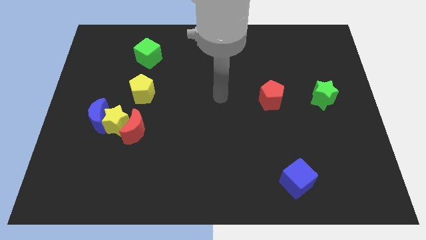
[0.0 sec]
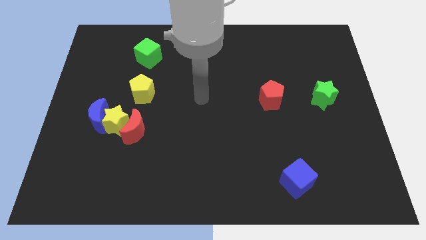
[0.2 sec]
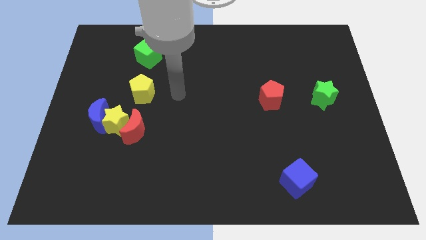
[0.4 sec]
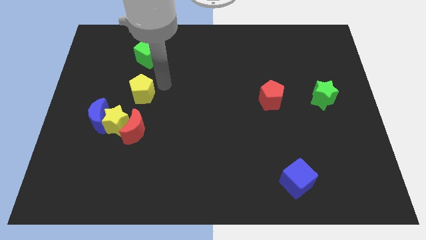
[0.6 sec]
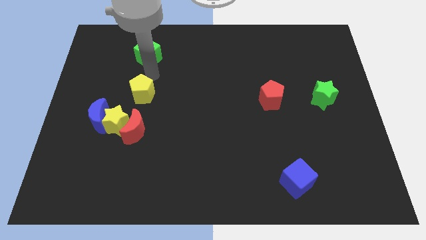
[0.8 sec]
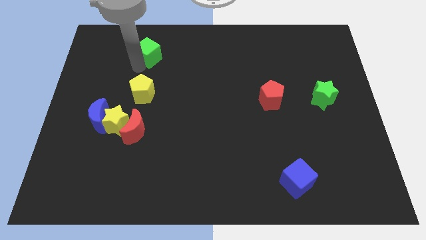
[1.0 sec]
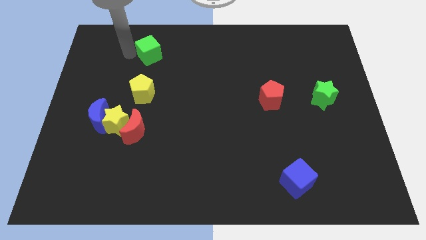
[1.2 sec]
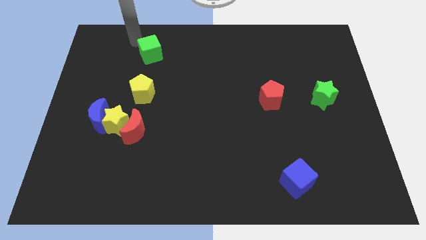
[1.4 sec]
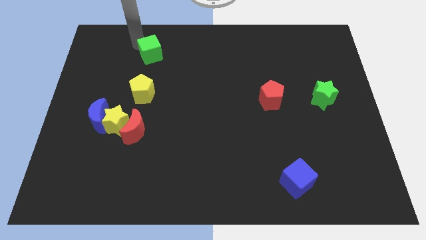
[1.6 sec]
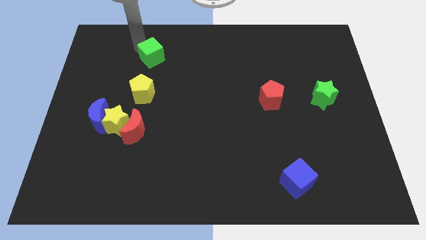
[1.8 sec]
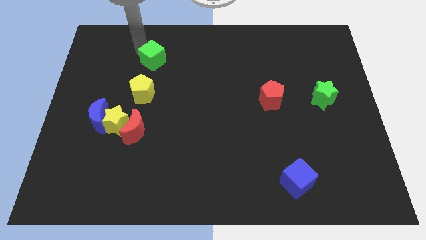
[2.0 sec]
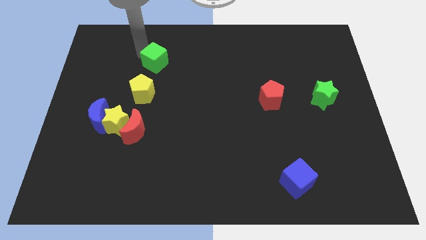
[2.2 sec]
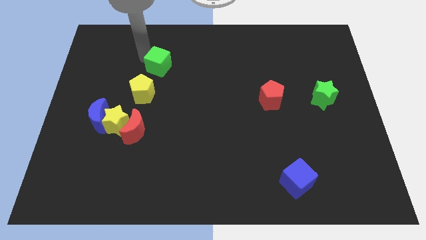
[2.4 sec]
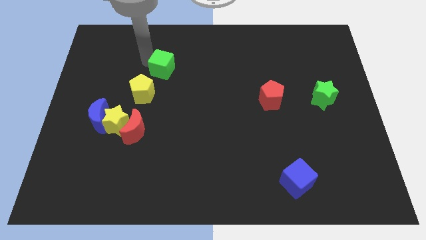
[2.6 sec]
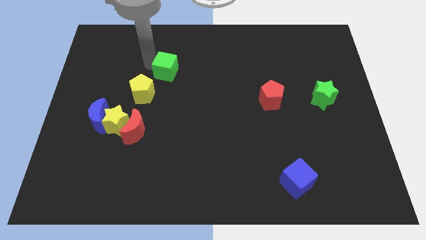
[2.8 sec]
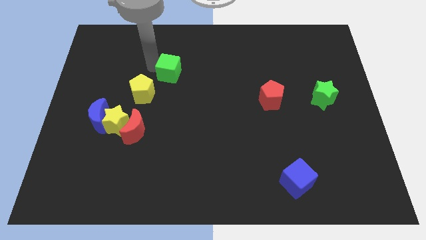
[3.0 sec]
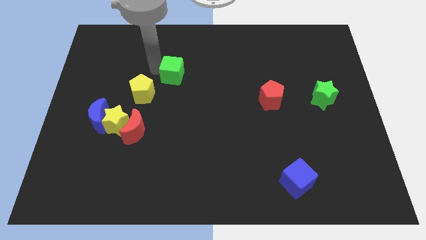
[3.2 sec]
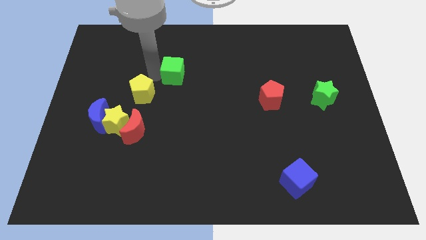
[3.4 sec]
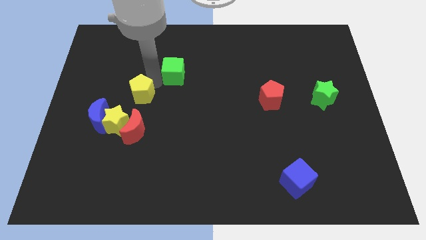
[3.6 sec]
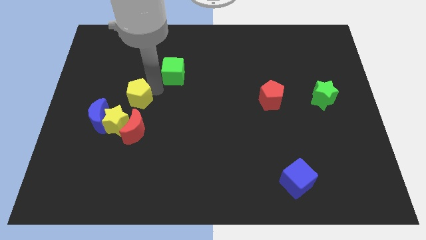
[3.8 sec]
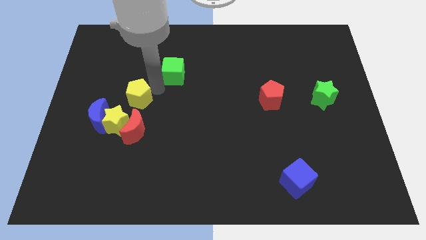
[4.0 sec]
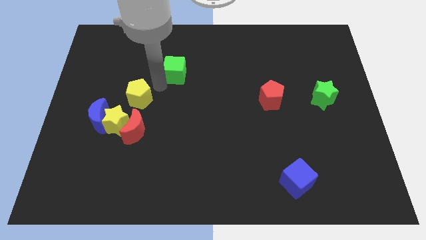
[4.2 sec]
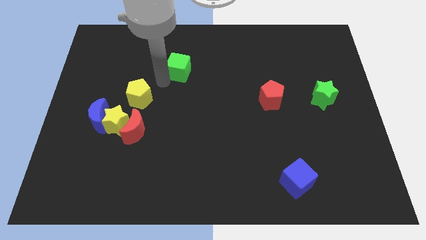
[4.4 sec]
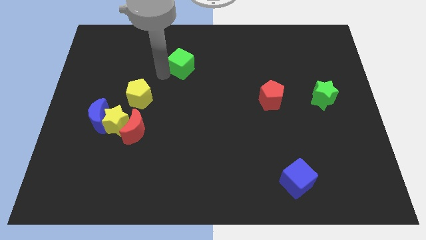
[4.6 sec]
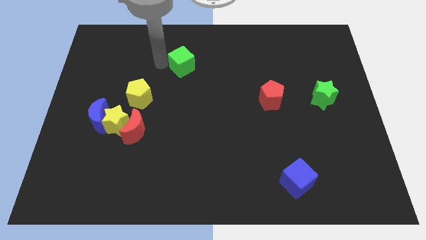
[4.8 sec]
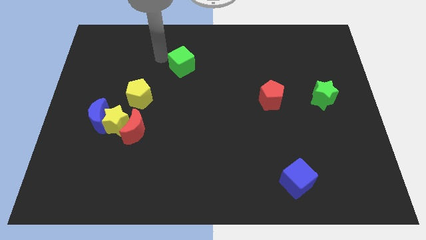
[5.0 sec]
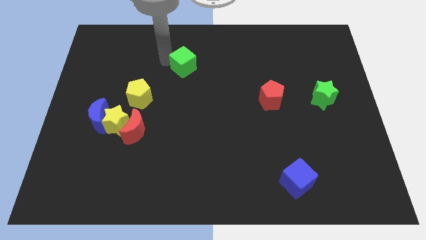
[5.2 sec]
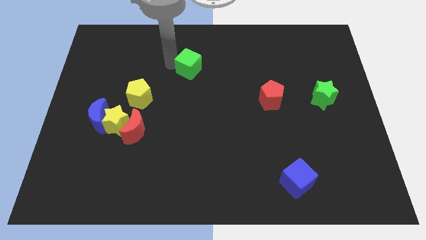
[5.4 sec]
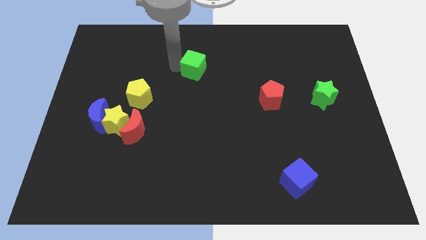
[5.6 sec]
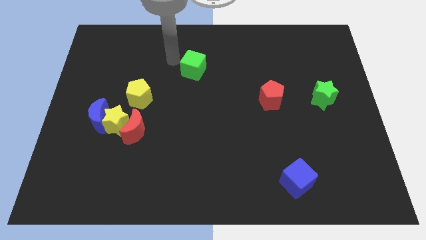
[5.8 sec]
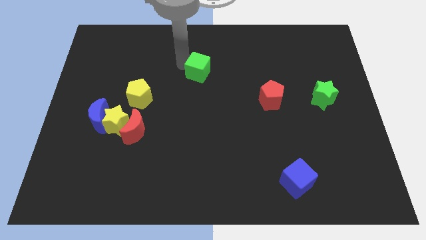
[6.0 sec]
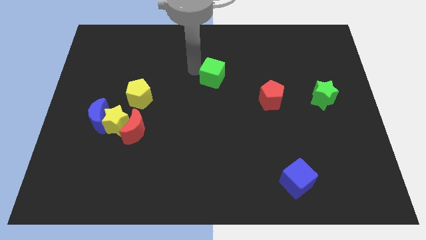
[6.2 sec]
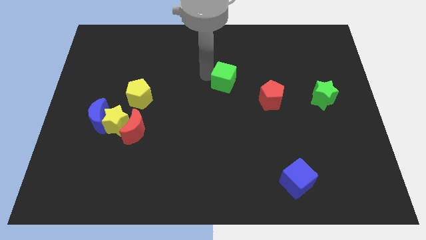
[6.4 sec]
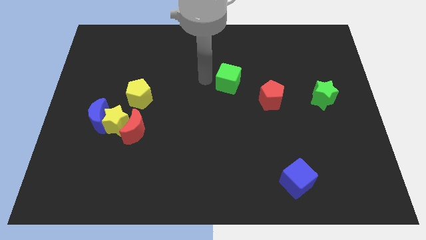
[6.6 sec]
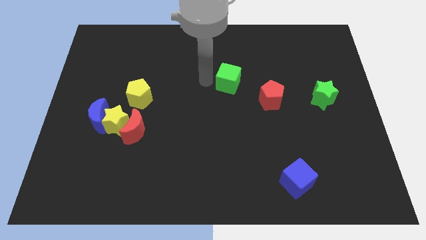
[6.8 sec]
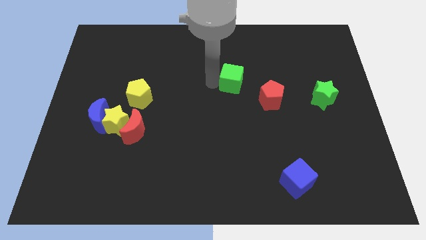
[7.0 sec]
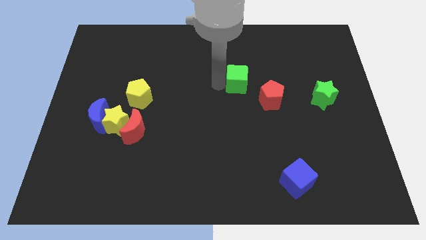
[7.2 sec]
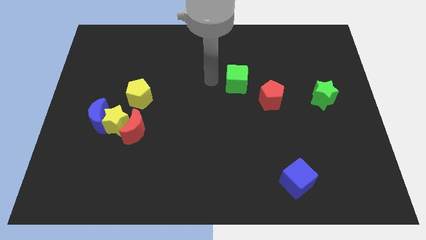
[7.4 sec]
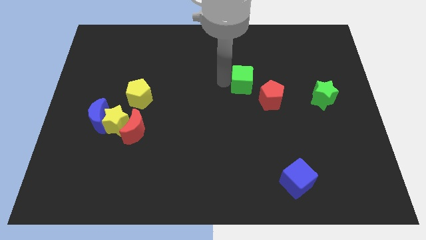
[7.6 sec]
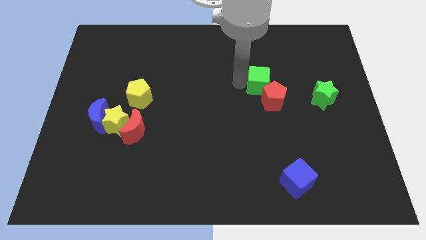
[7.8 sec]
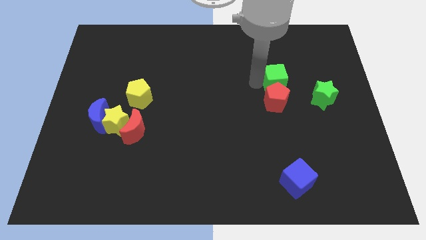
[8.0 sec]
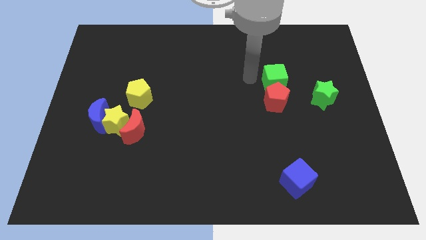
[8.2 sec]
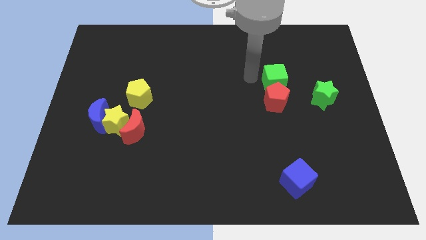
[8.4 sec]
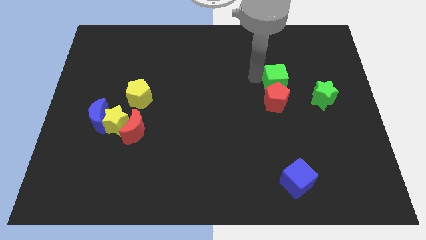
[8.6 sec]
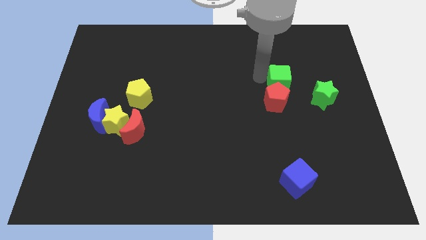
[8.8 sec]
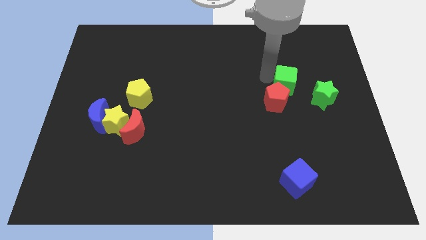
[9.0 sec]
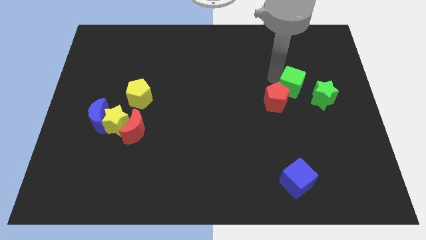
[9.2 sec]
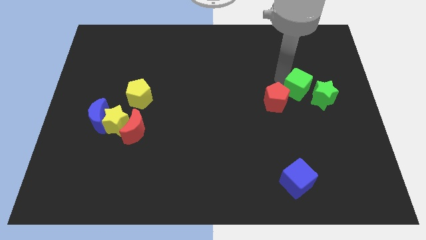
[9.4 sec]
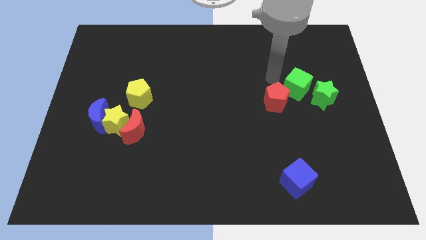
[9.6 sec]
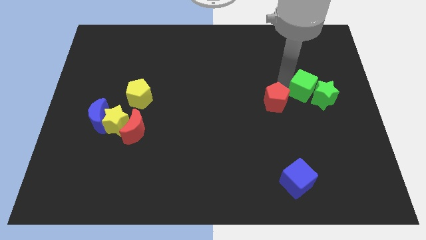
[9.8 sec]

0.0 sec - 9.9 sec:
push the green cube towards the green star

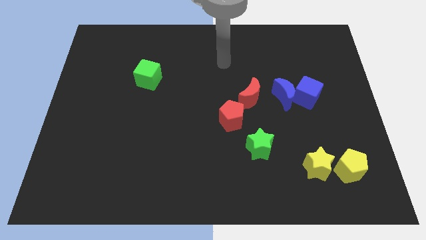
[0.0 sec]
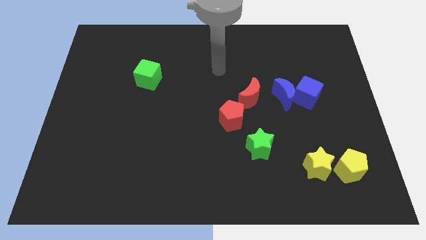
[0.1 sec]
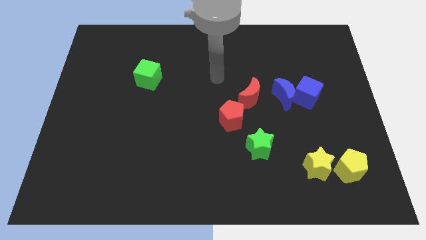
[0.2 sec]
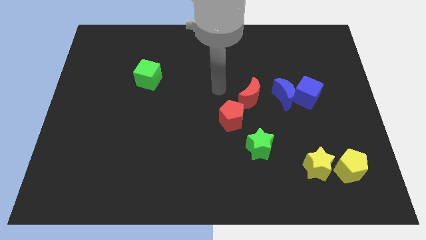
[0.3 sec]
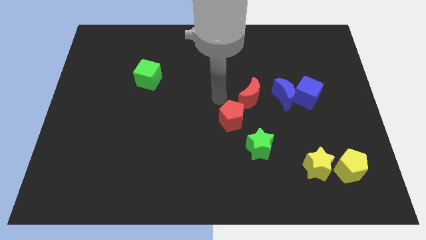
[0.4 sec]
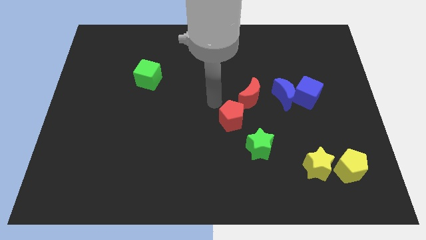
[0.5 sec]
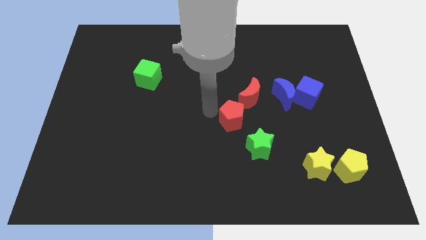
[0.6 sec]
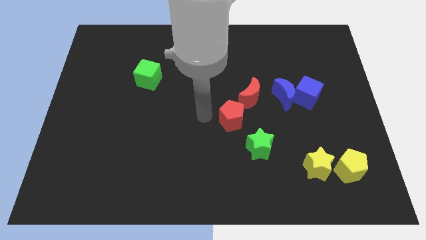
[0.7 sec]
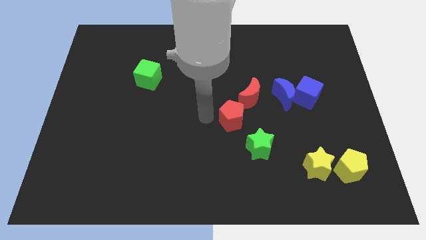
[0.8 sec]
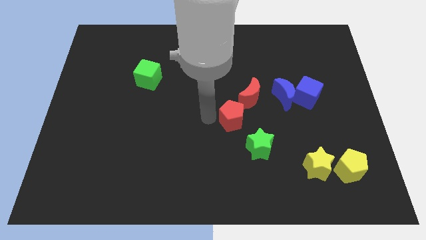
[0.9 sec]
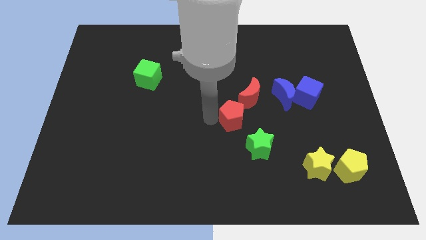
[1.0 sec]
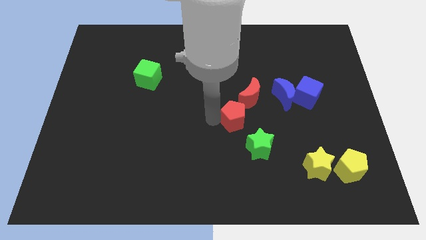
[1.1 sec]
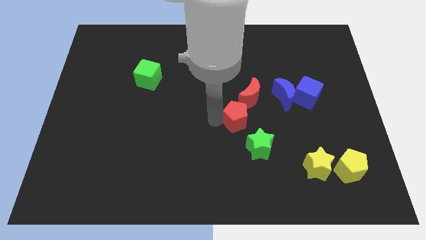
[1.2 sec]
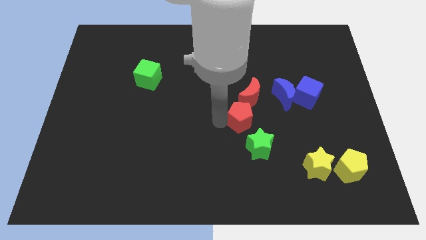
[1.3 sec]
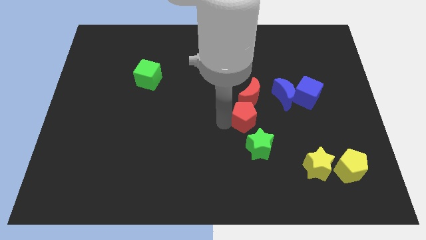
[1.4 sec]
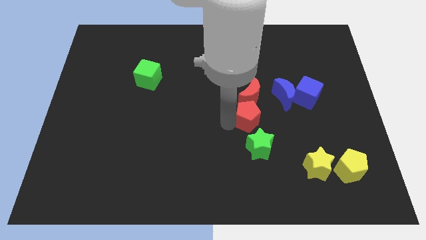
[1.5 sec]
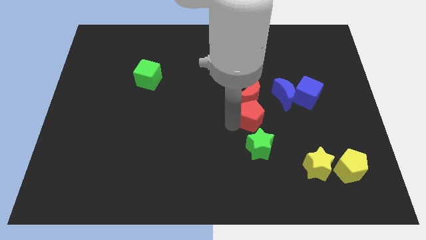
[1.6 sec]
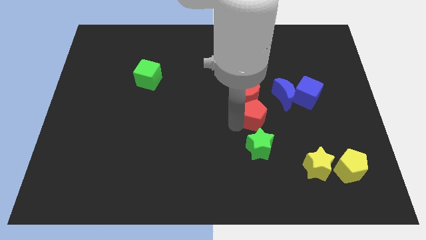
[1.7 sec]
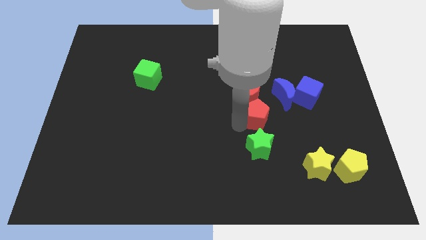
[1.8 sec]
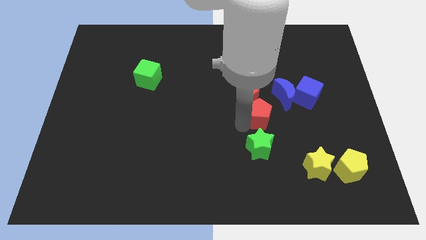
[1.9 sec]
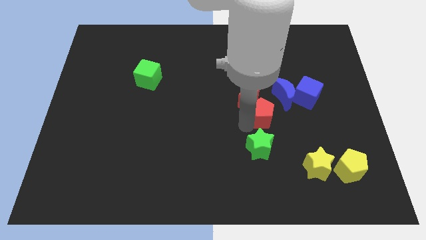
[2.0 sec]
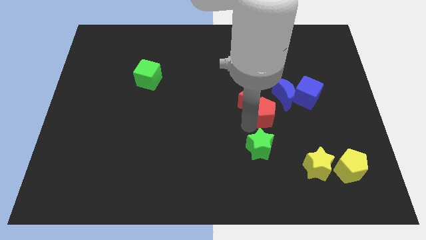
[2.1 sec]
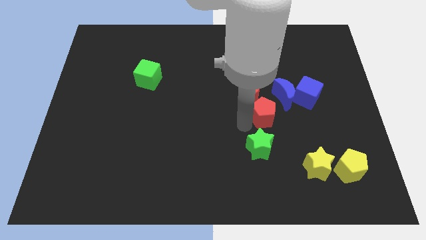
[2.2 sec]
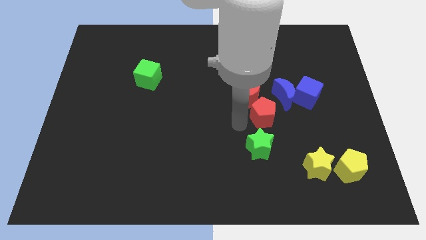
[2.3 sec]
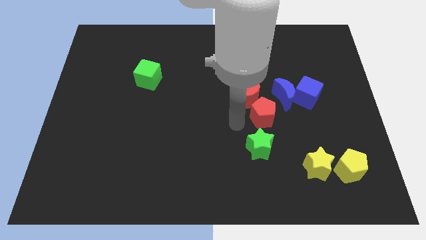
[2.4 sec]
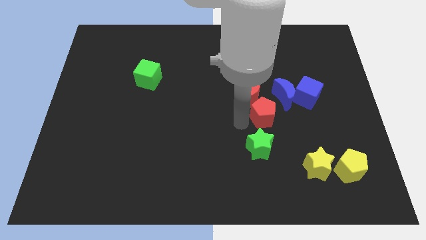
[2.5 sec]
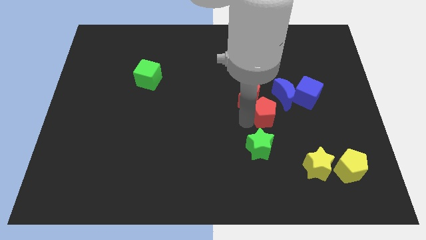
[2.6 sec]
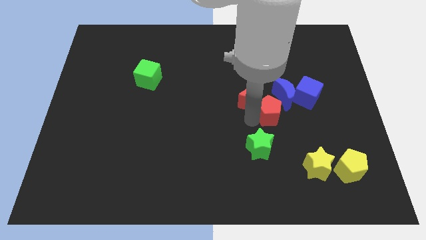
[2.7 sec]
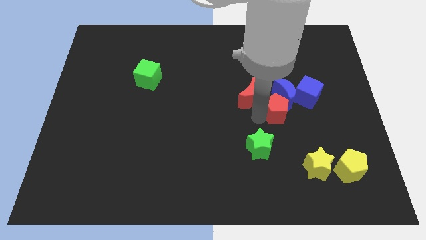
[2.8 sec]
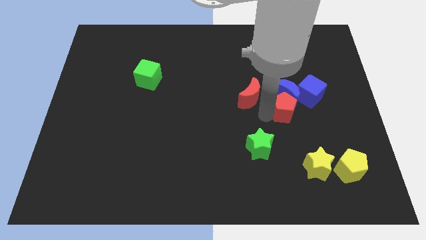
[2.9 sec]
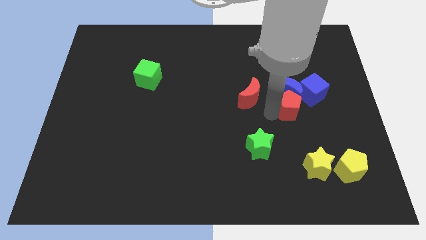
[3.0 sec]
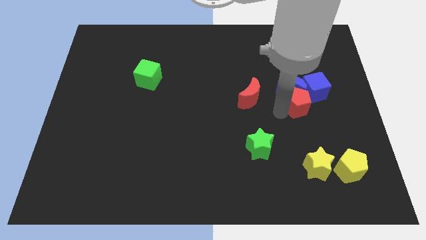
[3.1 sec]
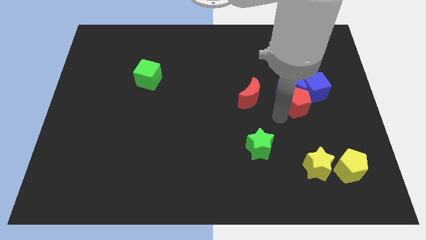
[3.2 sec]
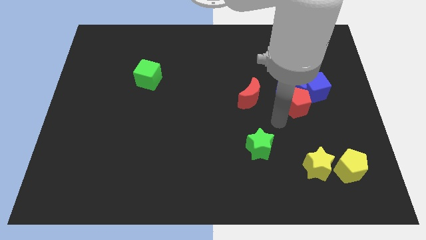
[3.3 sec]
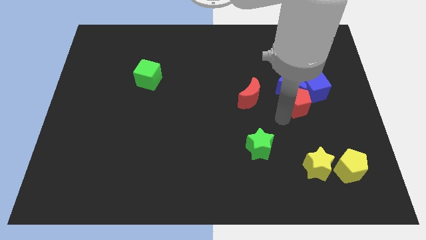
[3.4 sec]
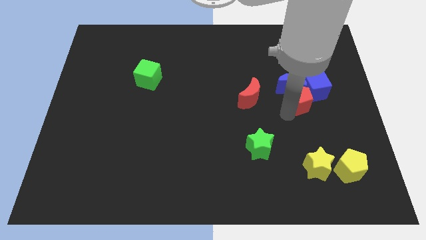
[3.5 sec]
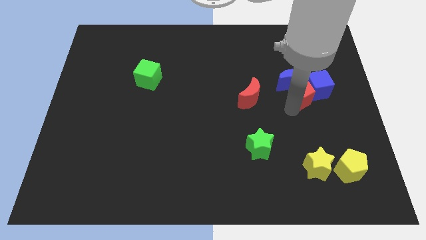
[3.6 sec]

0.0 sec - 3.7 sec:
push the red pentagon next to the blue cube
